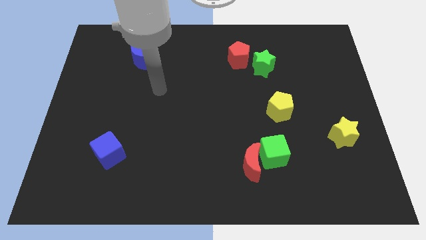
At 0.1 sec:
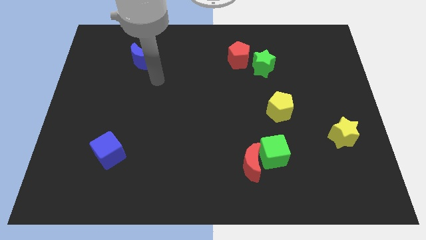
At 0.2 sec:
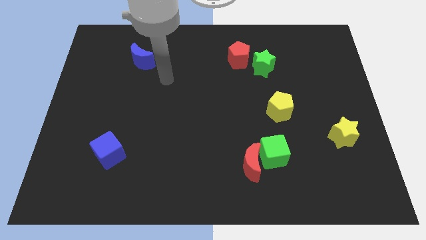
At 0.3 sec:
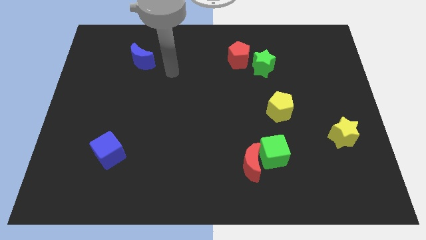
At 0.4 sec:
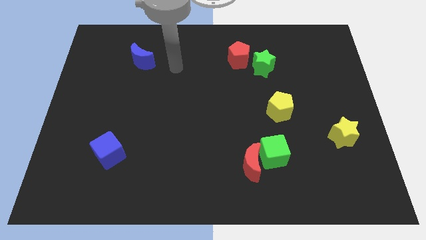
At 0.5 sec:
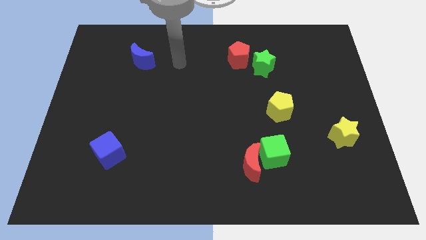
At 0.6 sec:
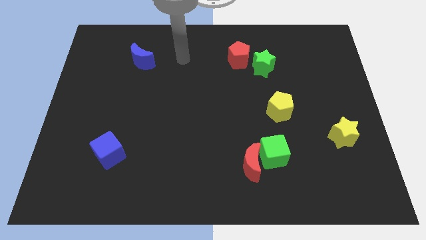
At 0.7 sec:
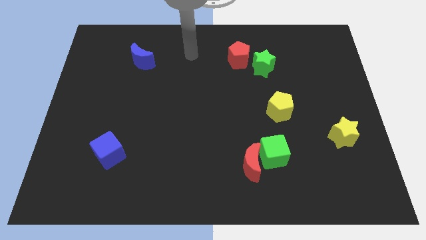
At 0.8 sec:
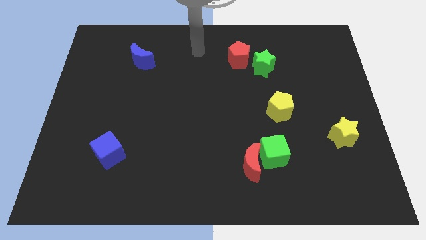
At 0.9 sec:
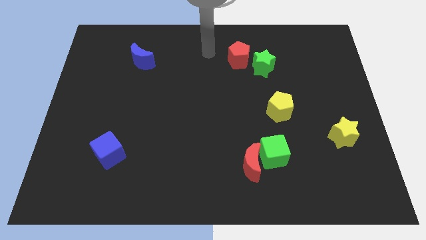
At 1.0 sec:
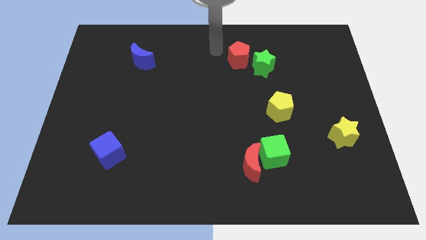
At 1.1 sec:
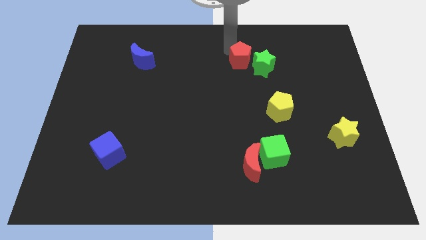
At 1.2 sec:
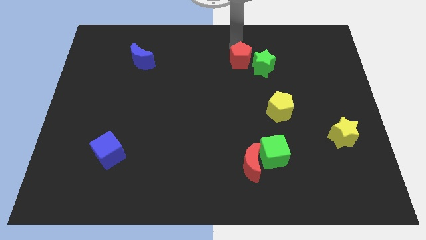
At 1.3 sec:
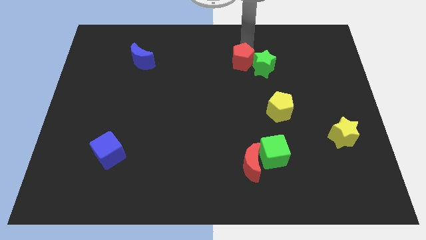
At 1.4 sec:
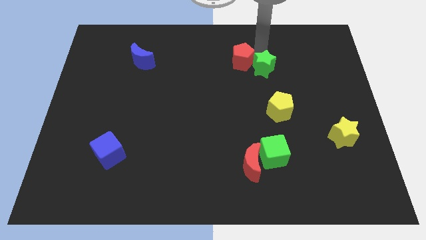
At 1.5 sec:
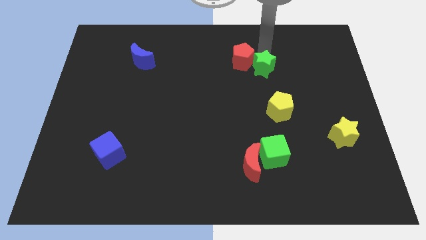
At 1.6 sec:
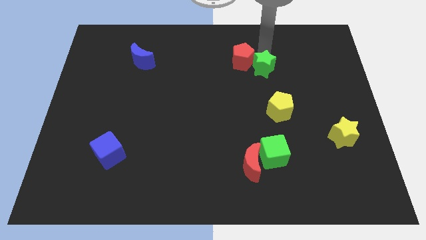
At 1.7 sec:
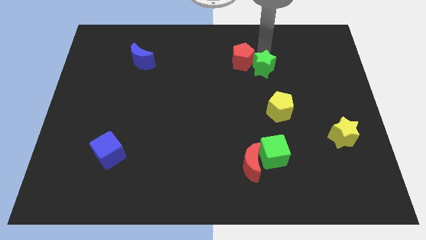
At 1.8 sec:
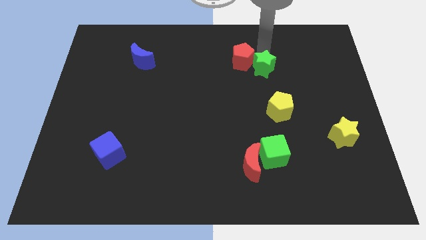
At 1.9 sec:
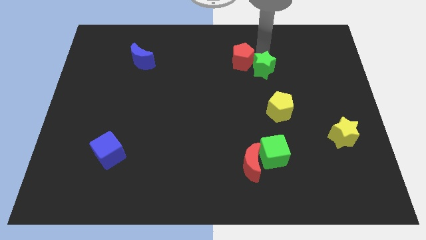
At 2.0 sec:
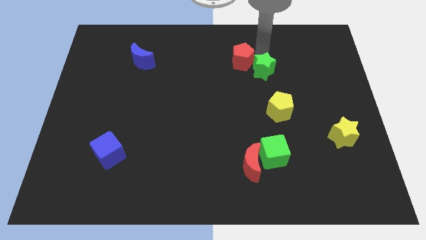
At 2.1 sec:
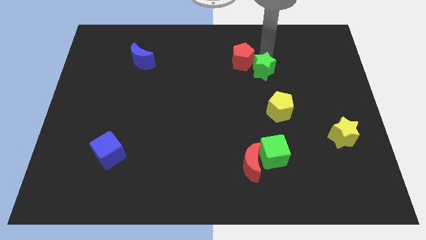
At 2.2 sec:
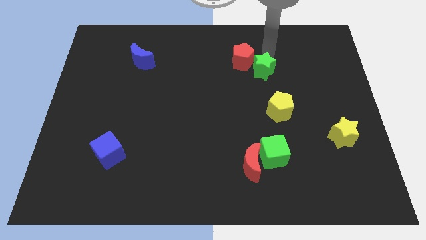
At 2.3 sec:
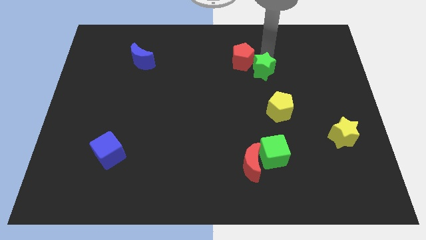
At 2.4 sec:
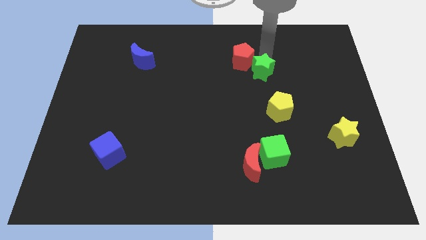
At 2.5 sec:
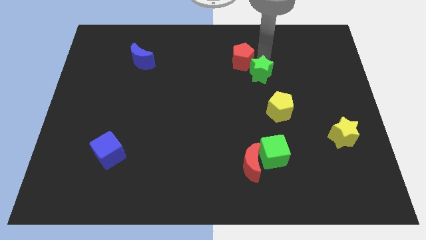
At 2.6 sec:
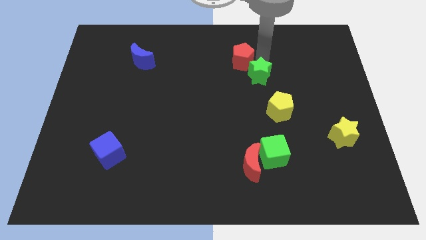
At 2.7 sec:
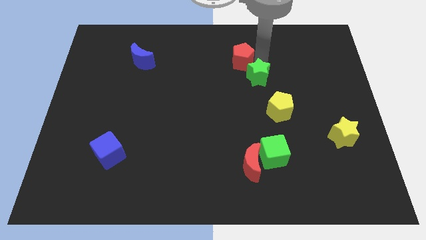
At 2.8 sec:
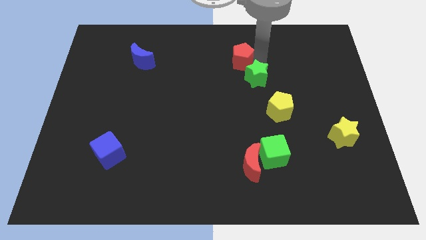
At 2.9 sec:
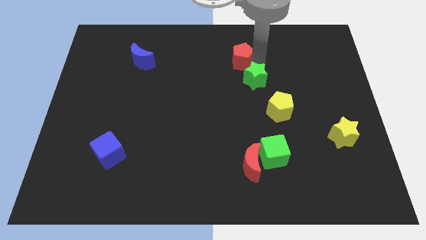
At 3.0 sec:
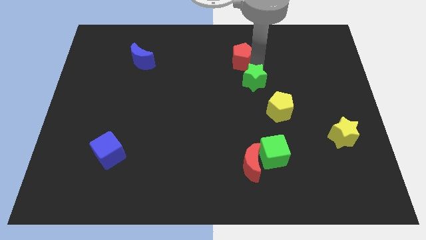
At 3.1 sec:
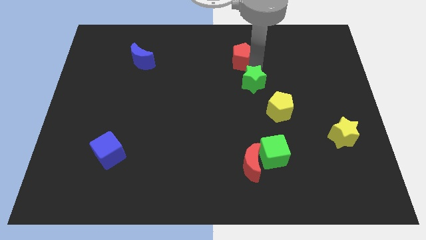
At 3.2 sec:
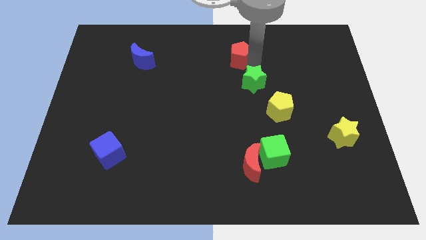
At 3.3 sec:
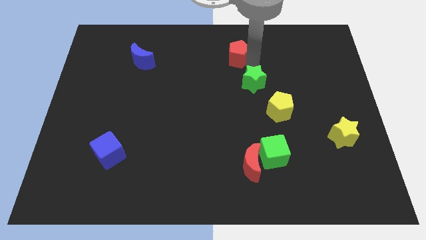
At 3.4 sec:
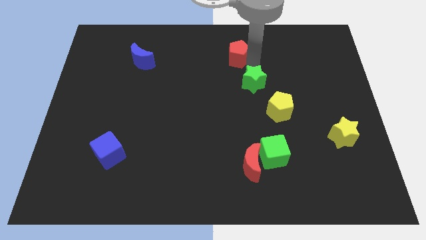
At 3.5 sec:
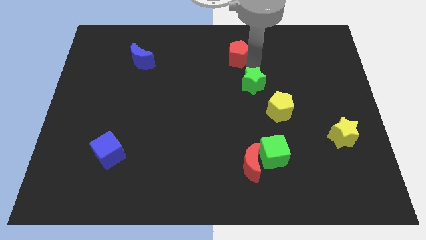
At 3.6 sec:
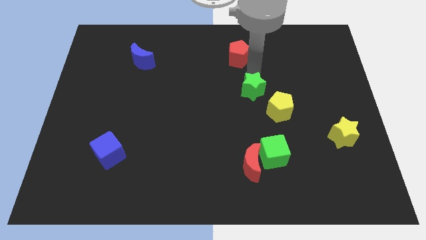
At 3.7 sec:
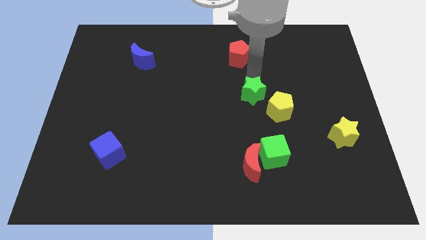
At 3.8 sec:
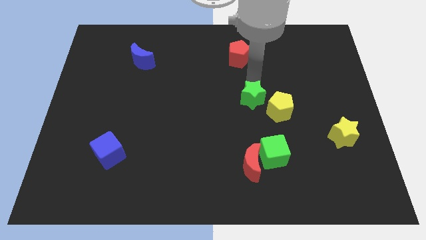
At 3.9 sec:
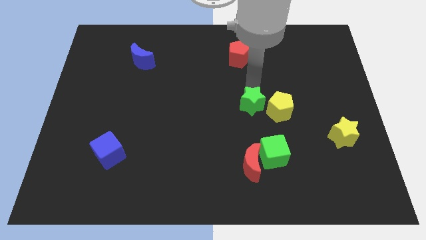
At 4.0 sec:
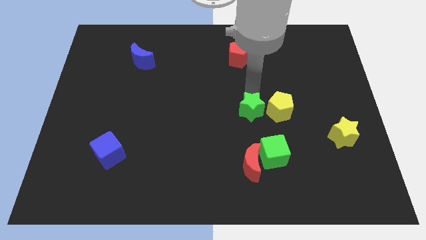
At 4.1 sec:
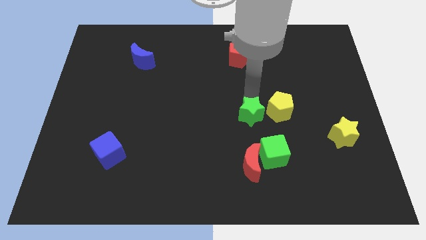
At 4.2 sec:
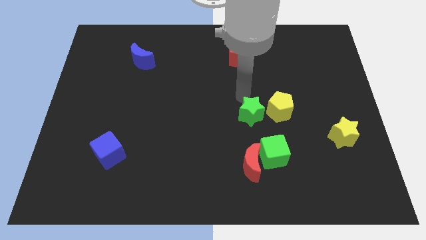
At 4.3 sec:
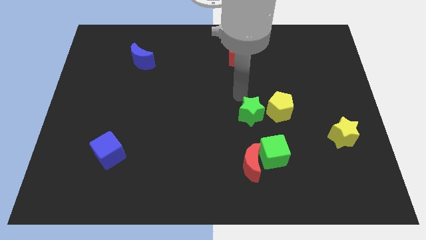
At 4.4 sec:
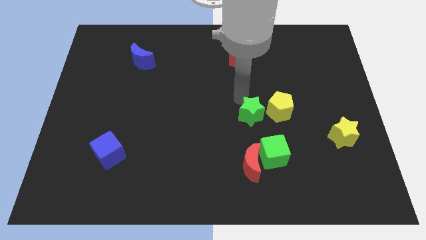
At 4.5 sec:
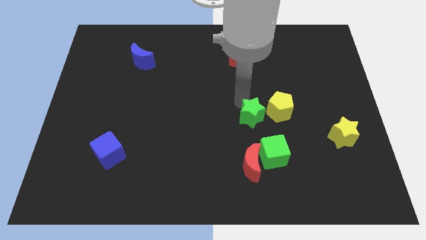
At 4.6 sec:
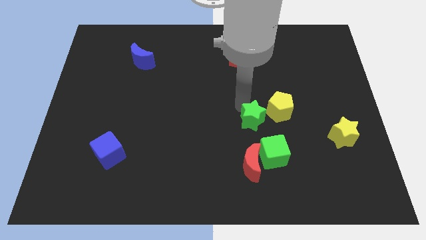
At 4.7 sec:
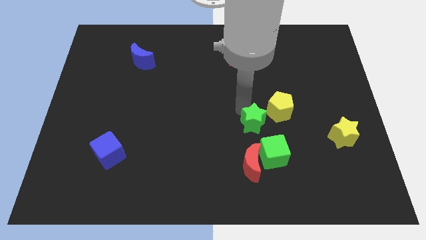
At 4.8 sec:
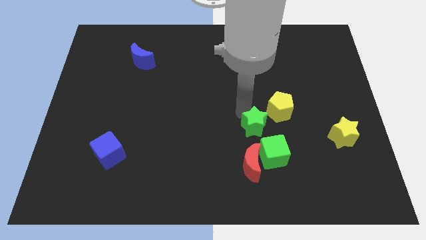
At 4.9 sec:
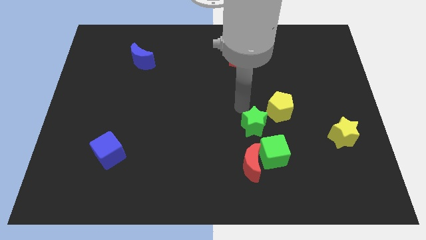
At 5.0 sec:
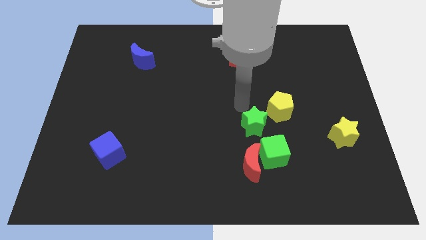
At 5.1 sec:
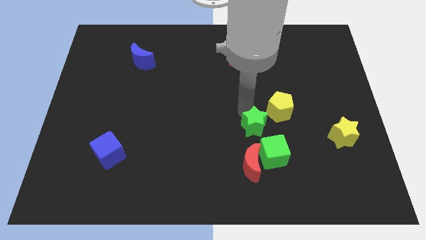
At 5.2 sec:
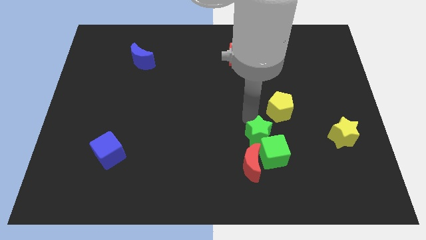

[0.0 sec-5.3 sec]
put the green star close to the green cube

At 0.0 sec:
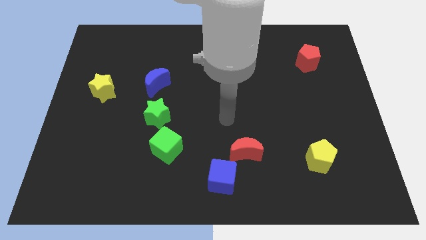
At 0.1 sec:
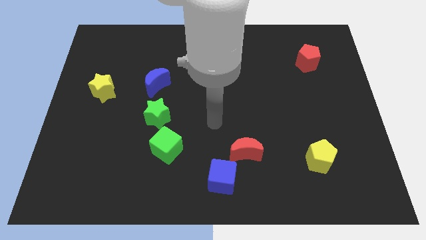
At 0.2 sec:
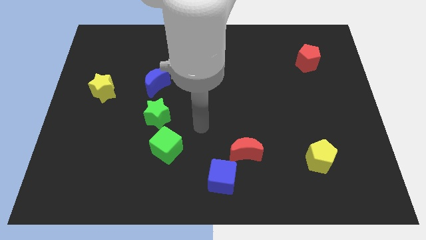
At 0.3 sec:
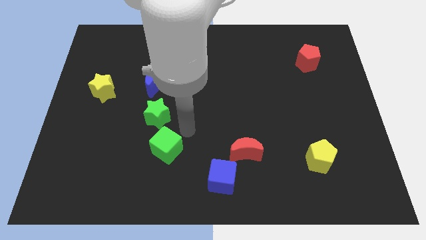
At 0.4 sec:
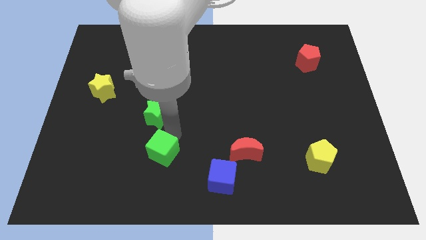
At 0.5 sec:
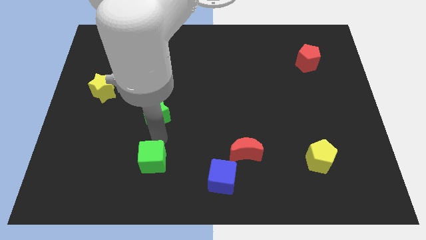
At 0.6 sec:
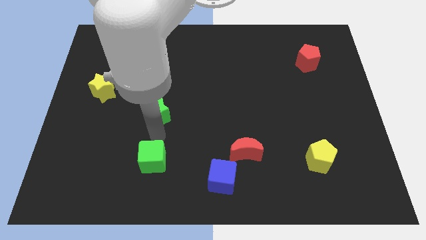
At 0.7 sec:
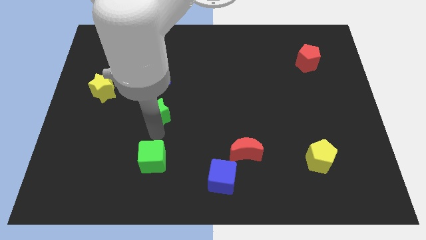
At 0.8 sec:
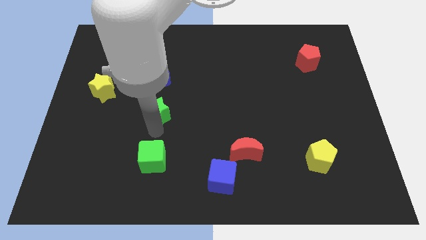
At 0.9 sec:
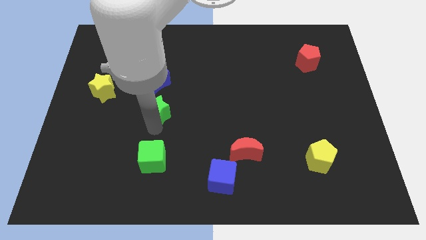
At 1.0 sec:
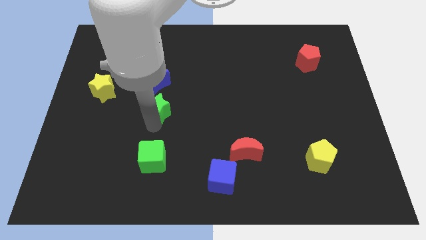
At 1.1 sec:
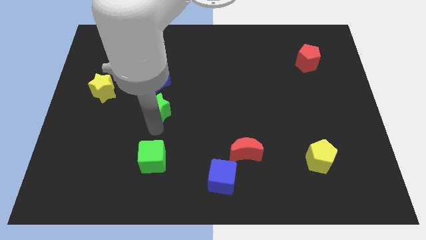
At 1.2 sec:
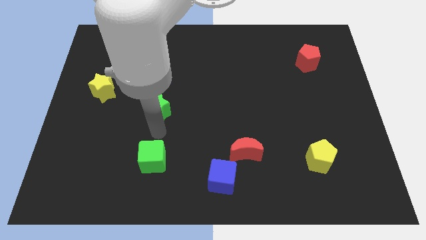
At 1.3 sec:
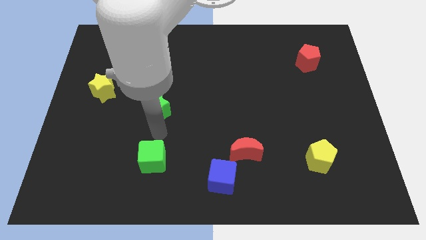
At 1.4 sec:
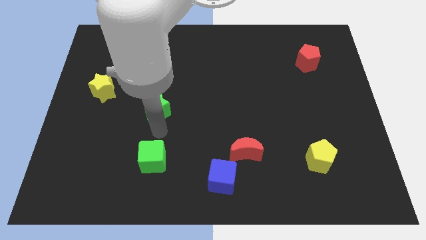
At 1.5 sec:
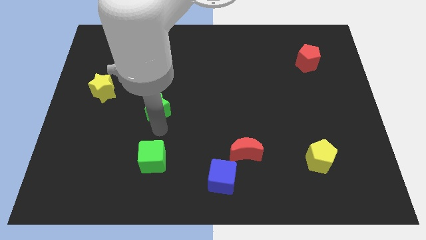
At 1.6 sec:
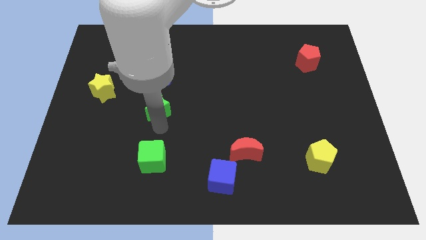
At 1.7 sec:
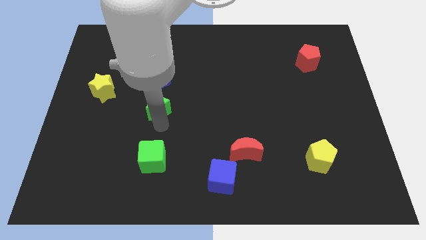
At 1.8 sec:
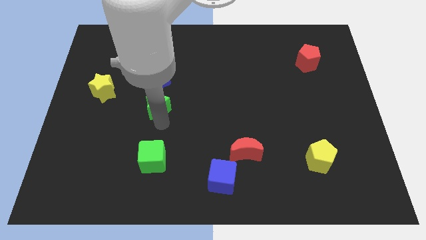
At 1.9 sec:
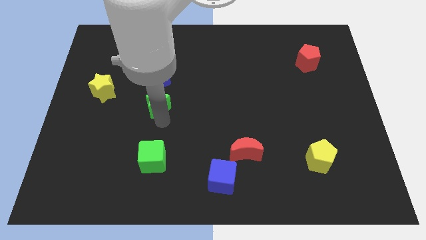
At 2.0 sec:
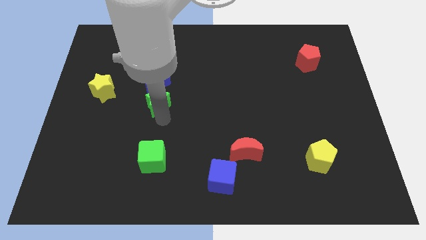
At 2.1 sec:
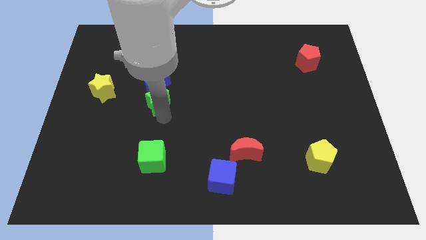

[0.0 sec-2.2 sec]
slide the green star to the blue moon
